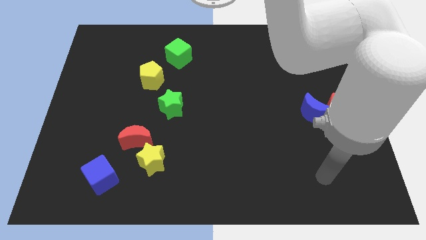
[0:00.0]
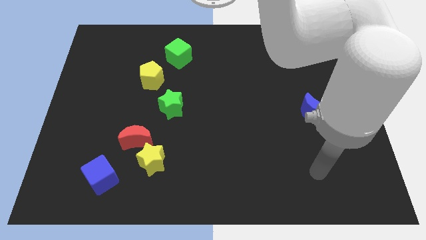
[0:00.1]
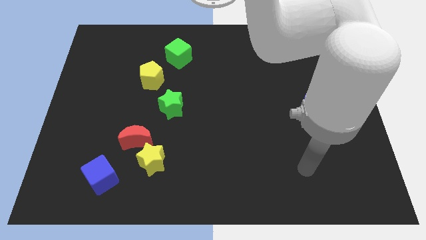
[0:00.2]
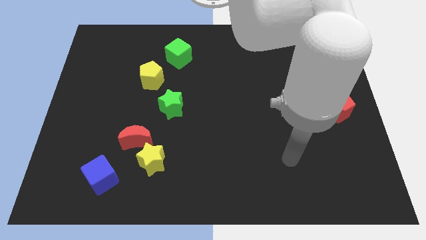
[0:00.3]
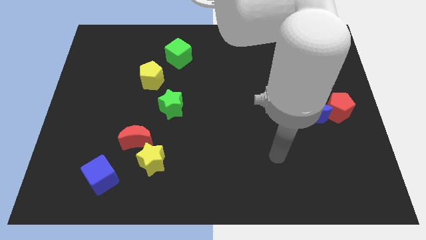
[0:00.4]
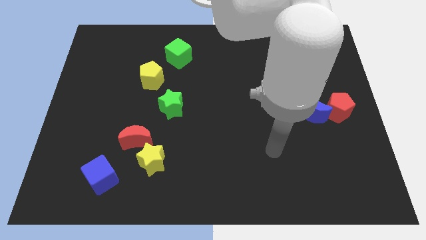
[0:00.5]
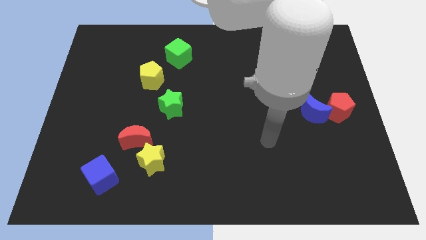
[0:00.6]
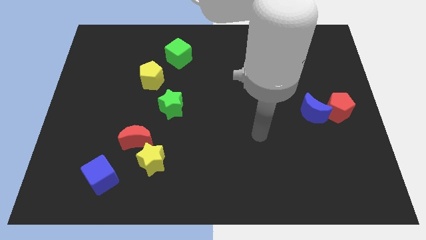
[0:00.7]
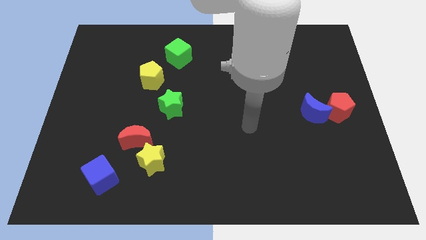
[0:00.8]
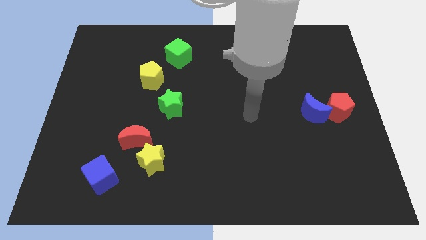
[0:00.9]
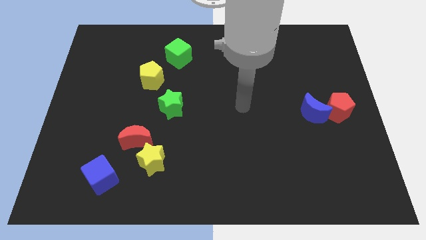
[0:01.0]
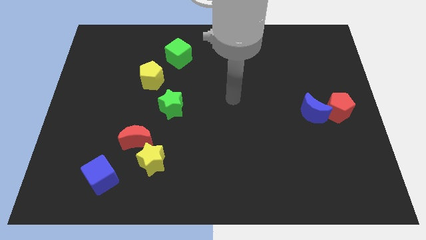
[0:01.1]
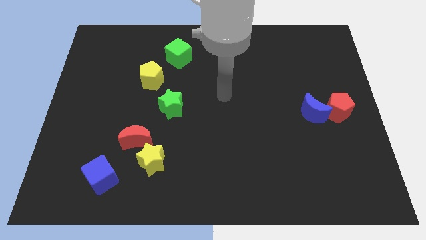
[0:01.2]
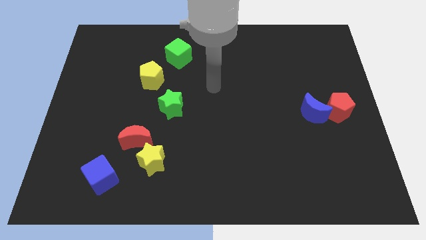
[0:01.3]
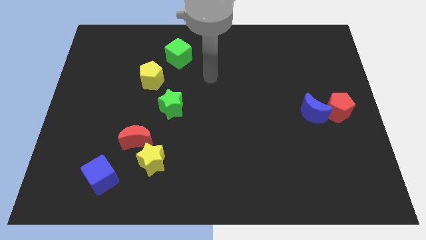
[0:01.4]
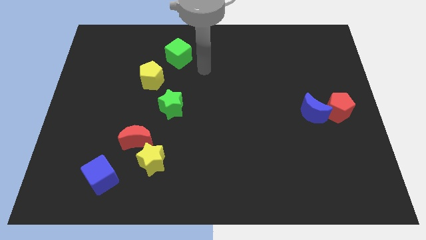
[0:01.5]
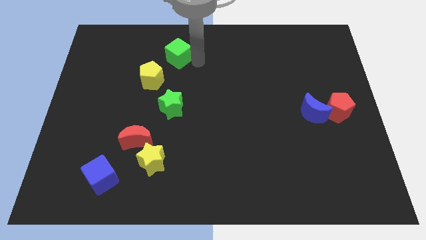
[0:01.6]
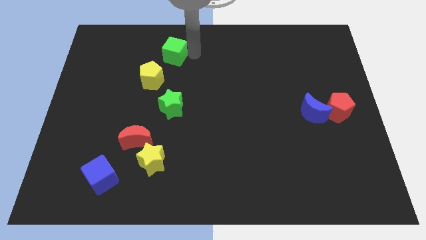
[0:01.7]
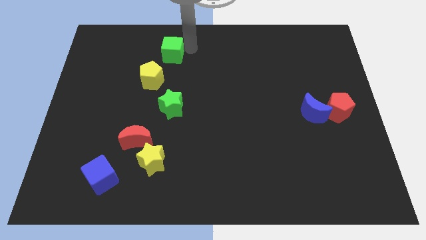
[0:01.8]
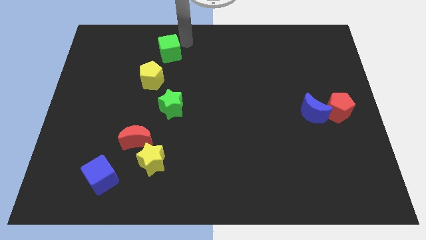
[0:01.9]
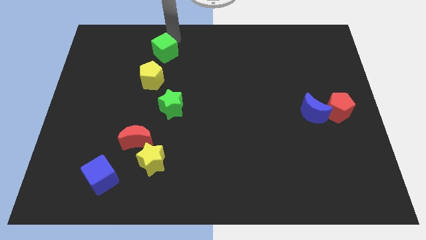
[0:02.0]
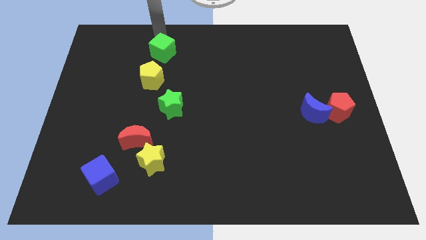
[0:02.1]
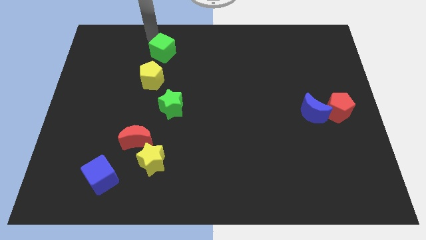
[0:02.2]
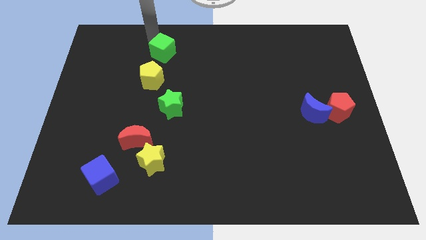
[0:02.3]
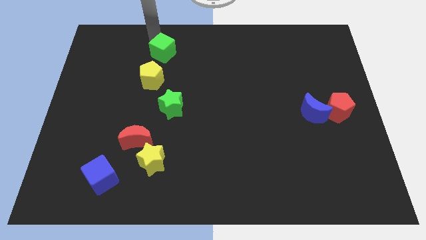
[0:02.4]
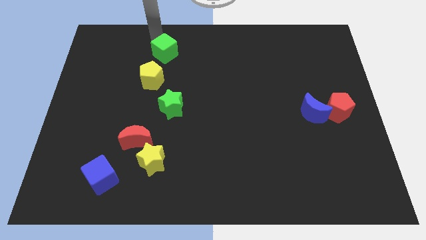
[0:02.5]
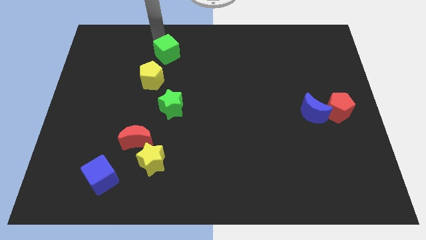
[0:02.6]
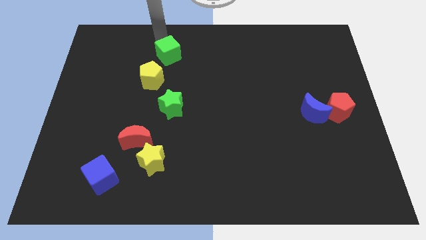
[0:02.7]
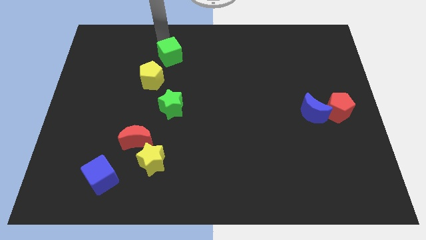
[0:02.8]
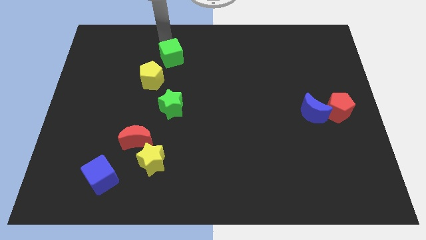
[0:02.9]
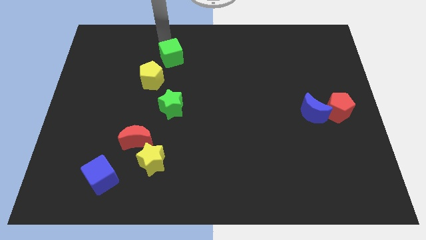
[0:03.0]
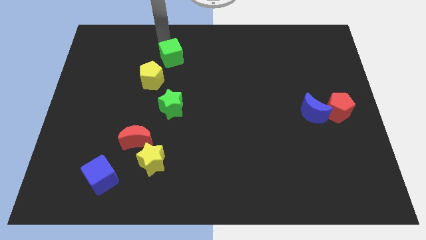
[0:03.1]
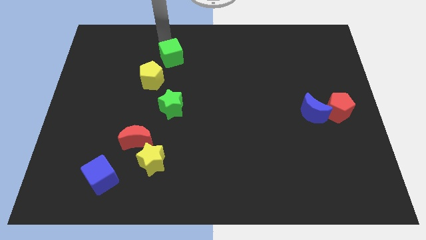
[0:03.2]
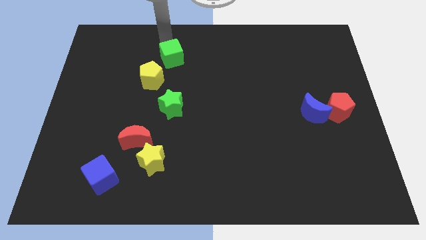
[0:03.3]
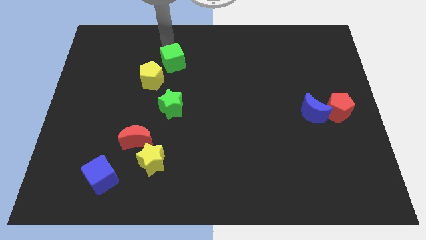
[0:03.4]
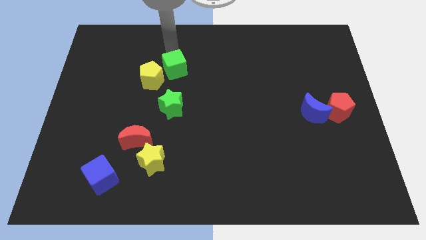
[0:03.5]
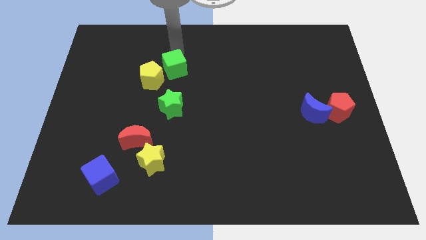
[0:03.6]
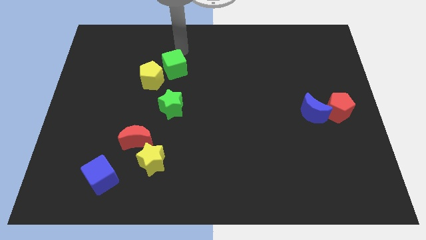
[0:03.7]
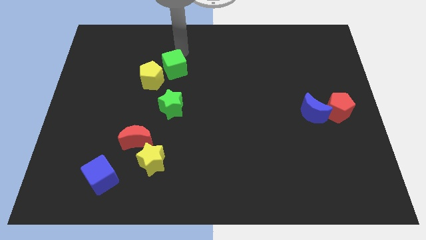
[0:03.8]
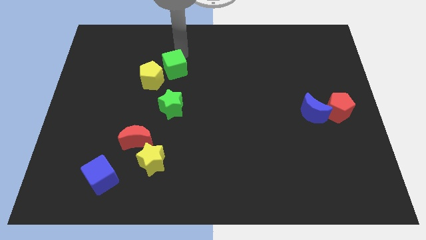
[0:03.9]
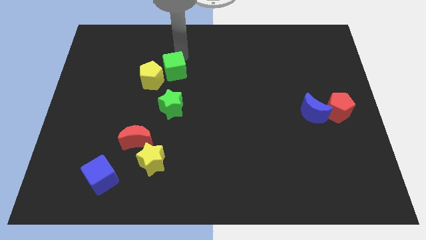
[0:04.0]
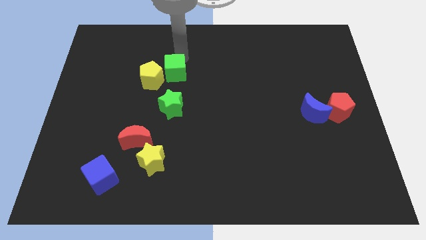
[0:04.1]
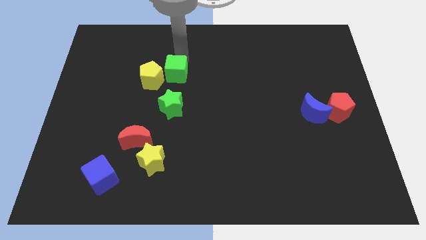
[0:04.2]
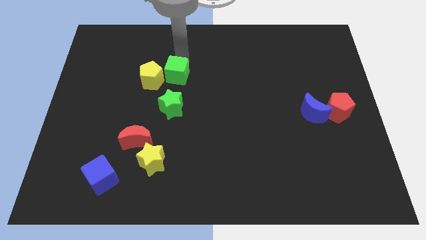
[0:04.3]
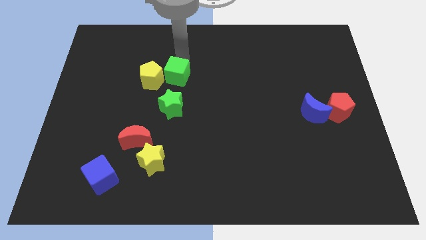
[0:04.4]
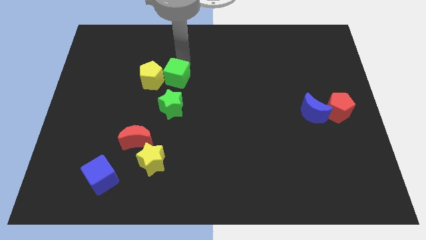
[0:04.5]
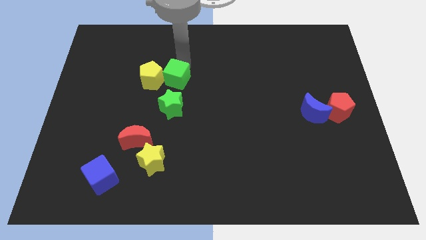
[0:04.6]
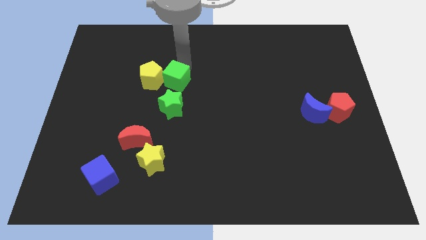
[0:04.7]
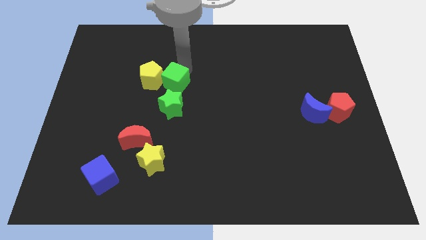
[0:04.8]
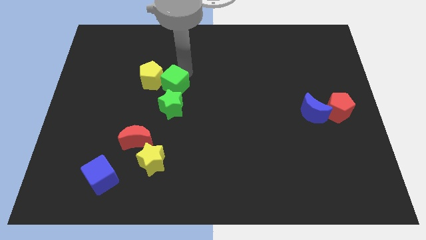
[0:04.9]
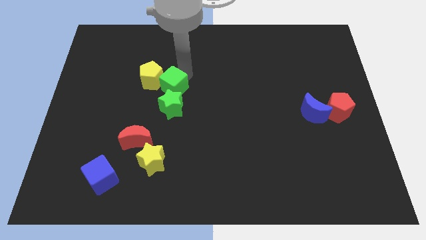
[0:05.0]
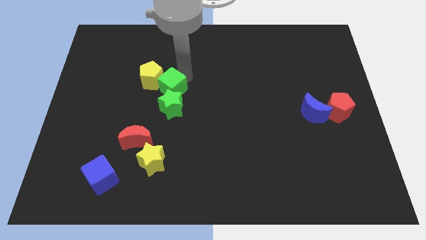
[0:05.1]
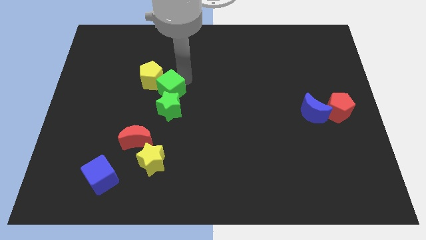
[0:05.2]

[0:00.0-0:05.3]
push the green cube down and then to the left a bit

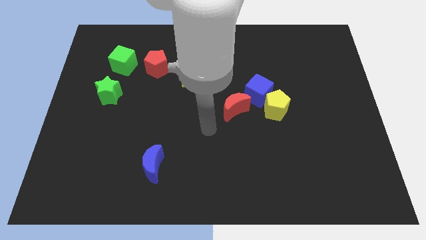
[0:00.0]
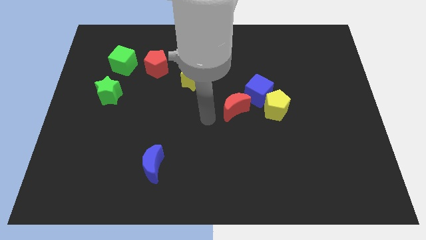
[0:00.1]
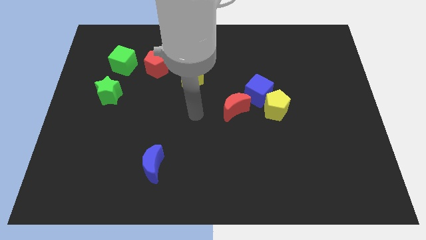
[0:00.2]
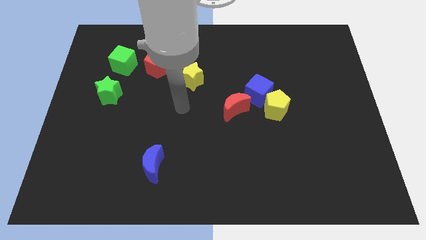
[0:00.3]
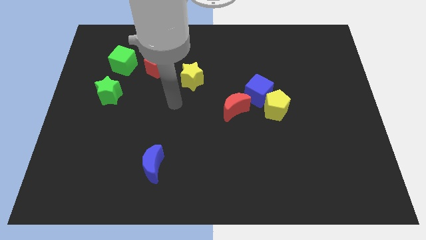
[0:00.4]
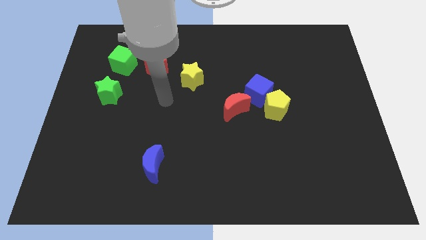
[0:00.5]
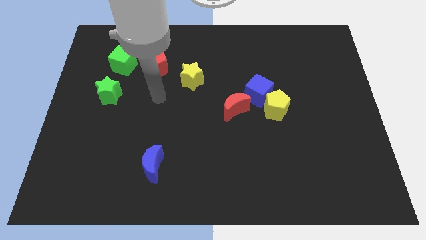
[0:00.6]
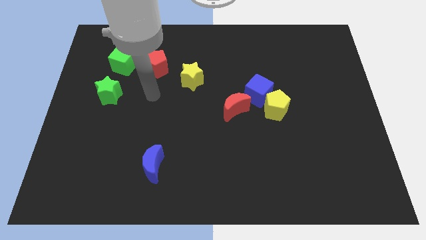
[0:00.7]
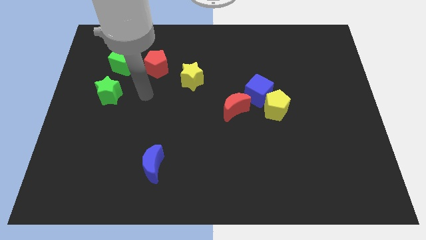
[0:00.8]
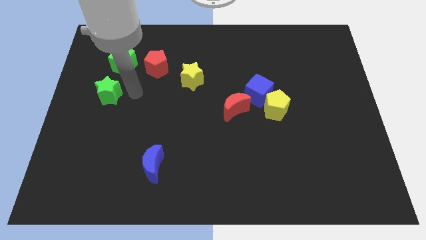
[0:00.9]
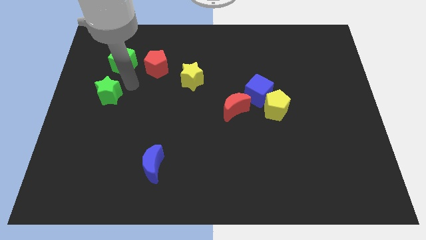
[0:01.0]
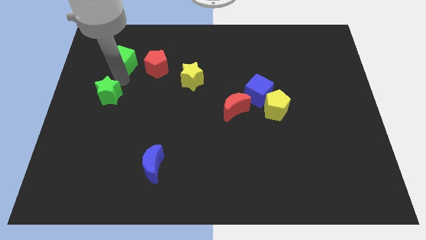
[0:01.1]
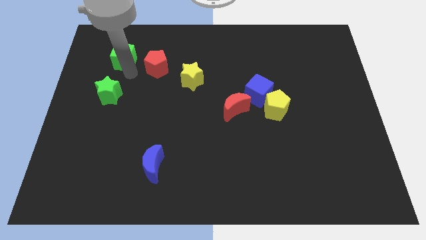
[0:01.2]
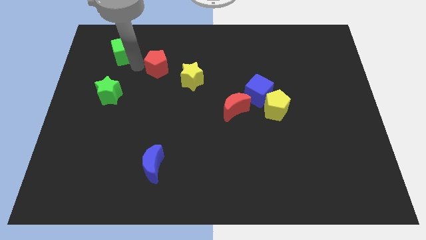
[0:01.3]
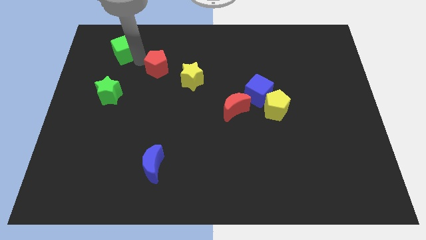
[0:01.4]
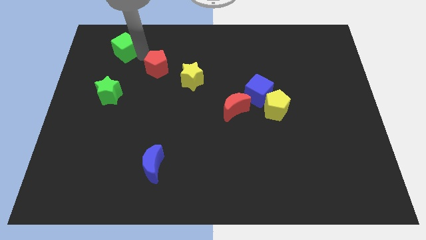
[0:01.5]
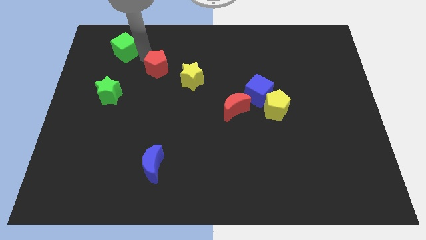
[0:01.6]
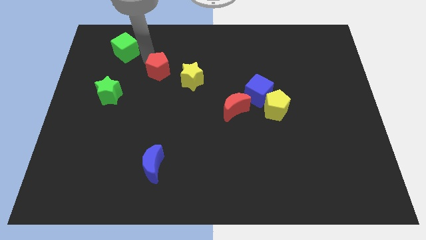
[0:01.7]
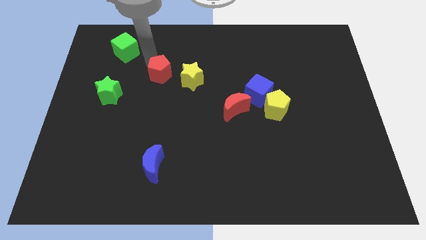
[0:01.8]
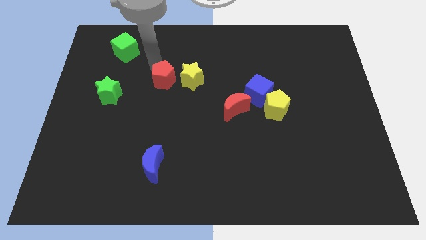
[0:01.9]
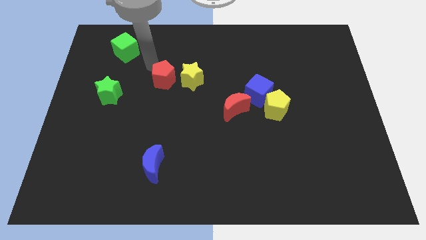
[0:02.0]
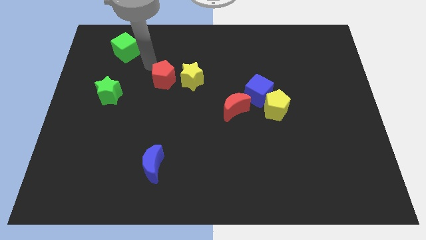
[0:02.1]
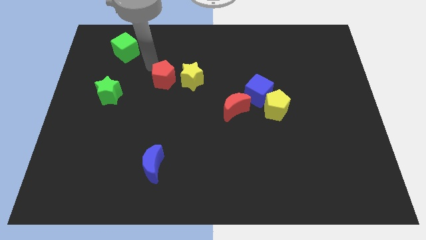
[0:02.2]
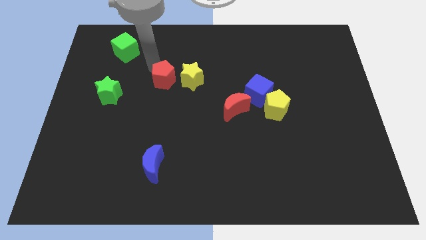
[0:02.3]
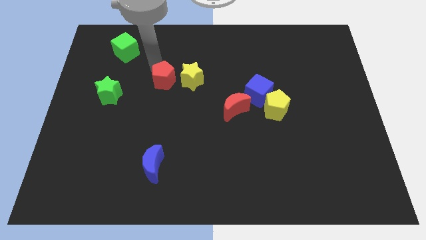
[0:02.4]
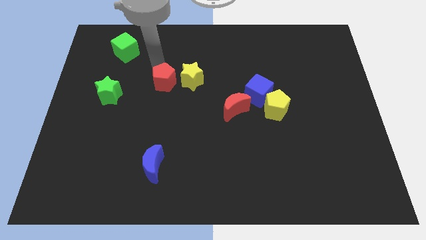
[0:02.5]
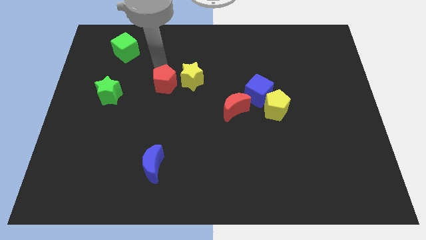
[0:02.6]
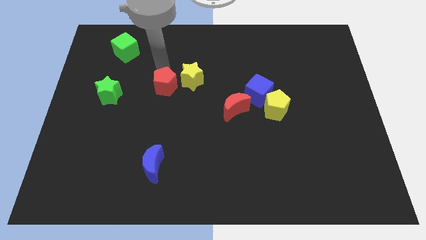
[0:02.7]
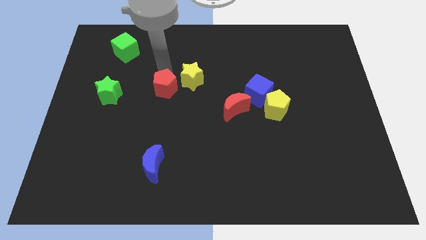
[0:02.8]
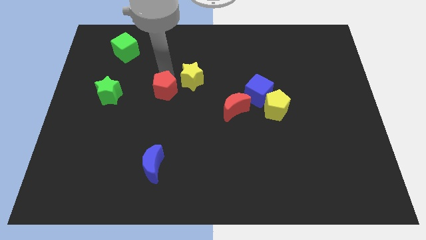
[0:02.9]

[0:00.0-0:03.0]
slightly move the red pentagon downwards and right
